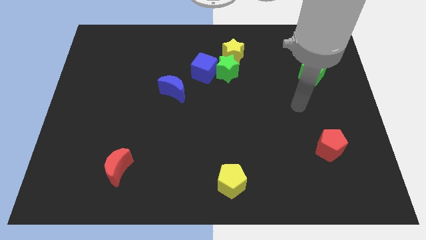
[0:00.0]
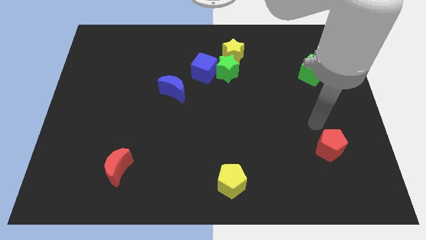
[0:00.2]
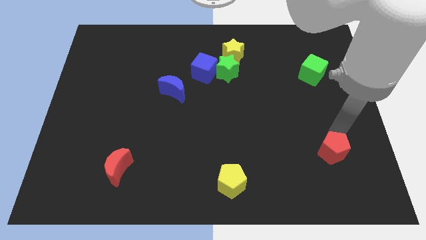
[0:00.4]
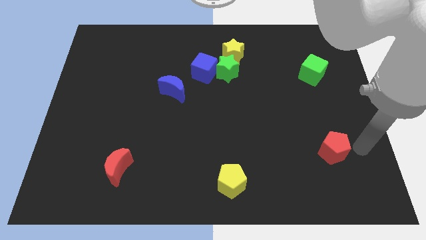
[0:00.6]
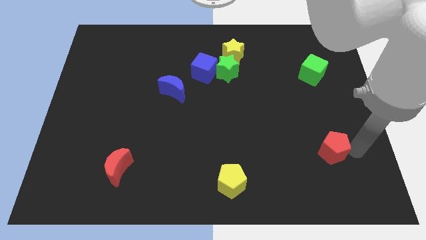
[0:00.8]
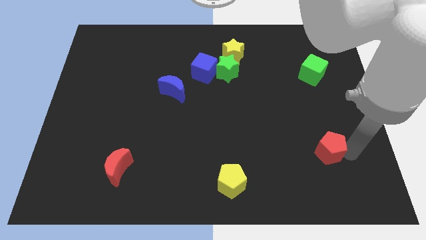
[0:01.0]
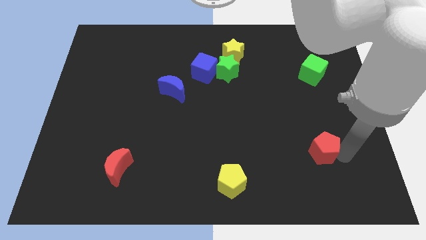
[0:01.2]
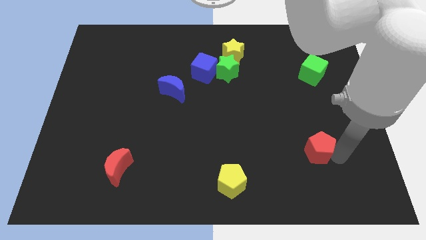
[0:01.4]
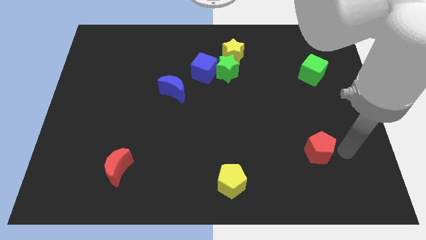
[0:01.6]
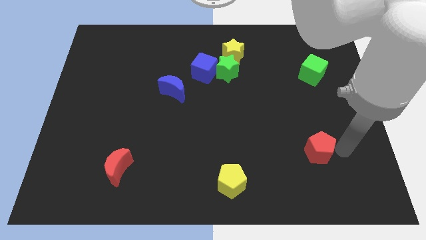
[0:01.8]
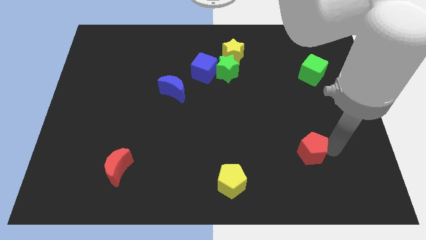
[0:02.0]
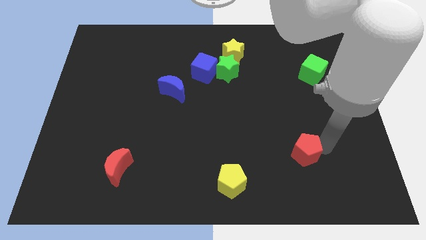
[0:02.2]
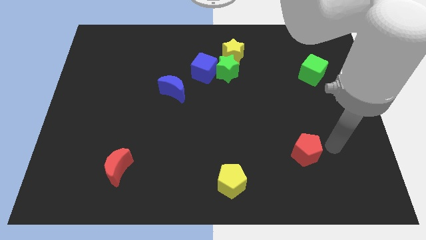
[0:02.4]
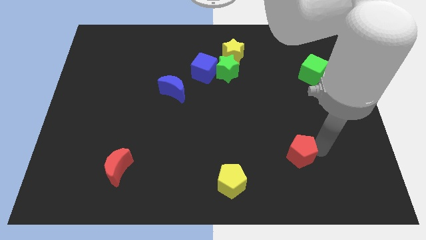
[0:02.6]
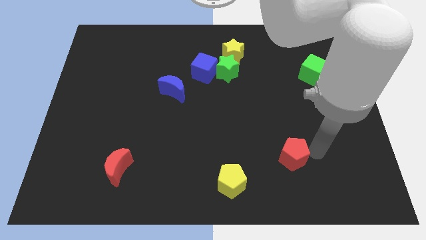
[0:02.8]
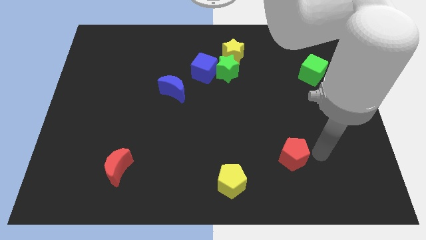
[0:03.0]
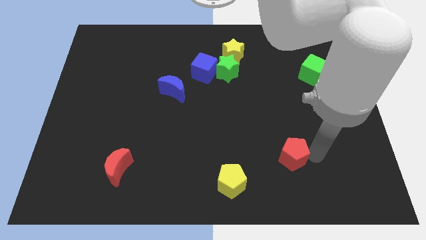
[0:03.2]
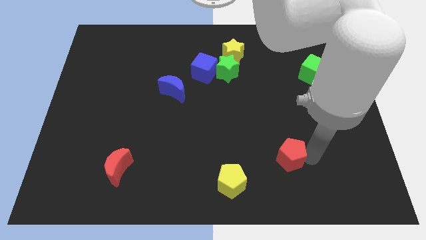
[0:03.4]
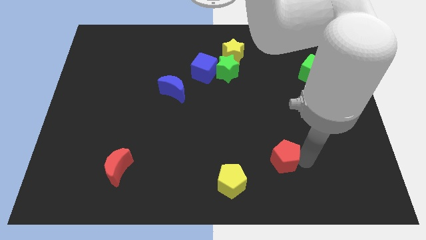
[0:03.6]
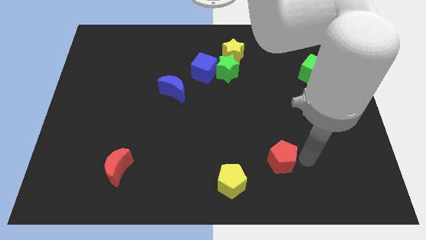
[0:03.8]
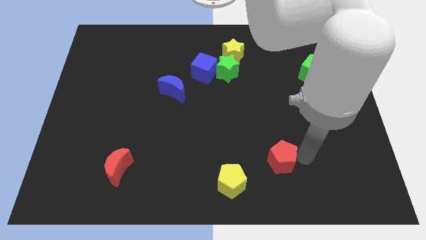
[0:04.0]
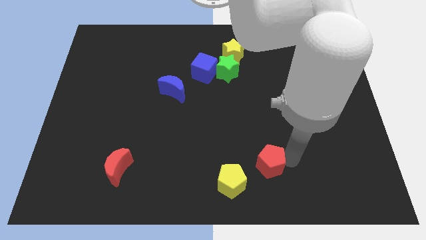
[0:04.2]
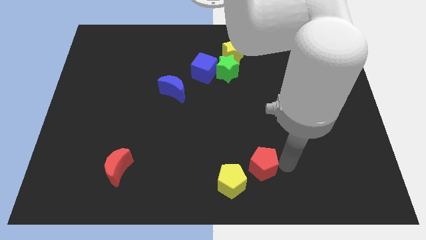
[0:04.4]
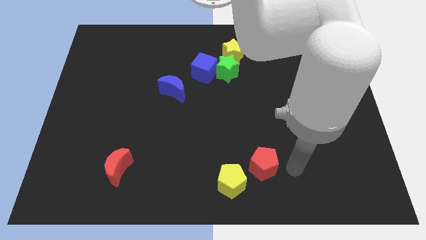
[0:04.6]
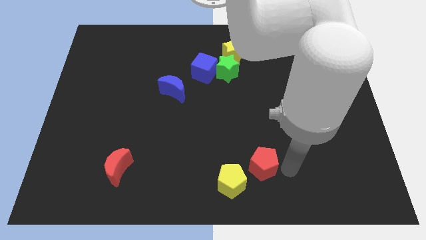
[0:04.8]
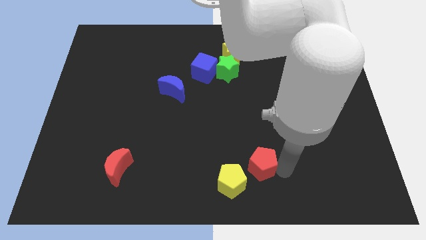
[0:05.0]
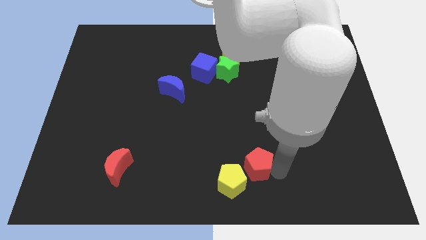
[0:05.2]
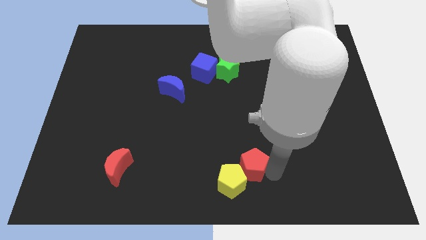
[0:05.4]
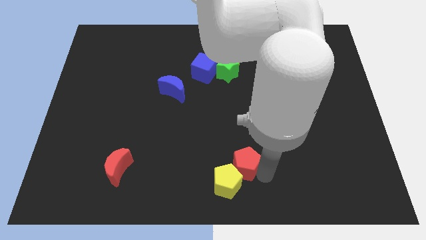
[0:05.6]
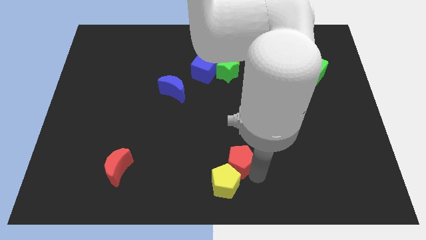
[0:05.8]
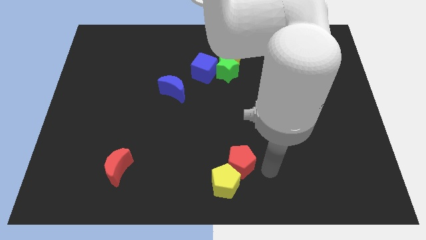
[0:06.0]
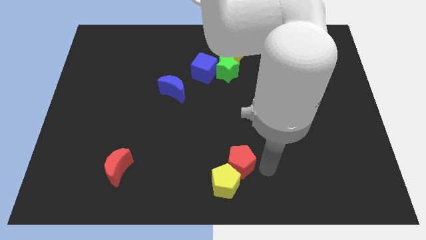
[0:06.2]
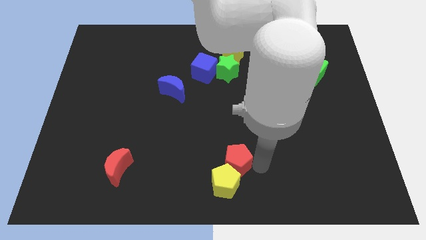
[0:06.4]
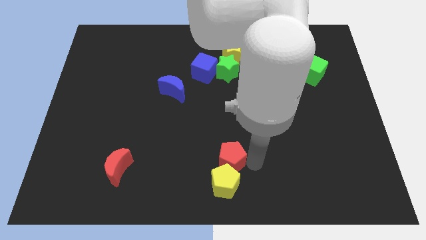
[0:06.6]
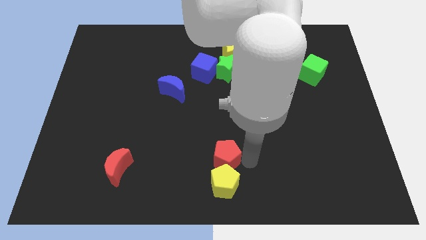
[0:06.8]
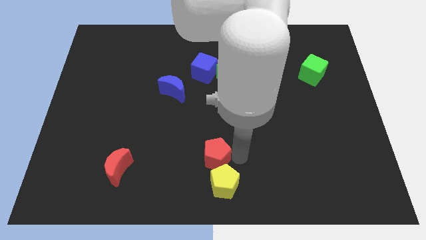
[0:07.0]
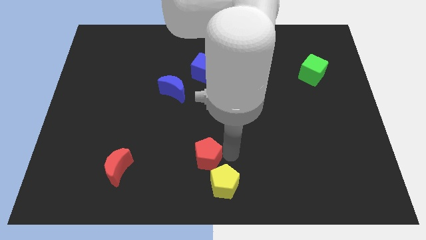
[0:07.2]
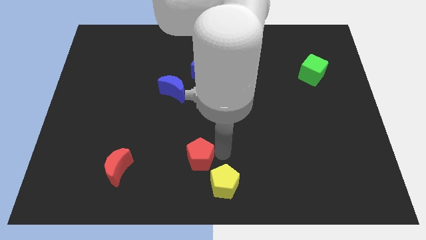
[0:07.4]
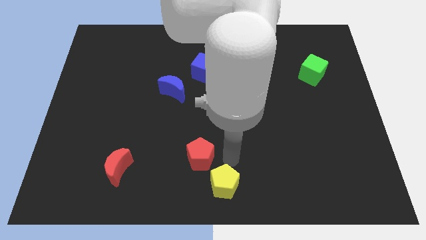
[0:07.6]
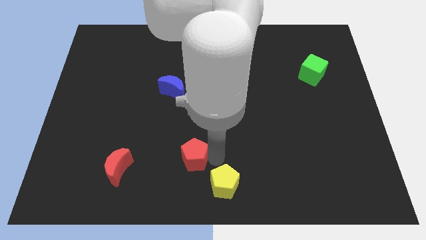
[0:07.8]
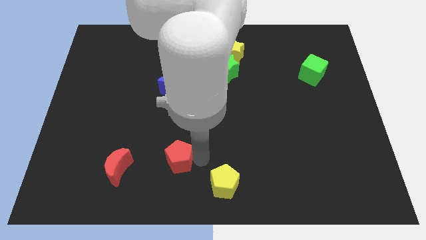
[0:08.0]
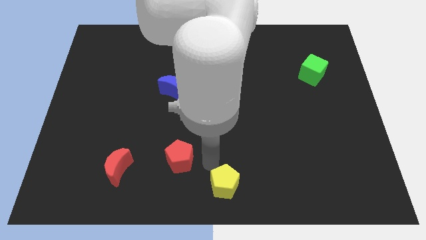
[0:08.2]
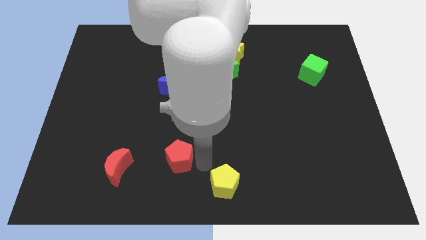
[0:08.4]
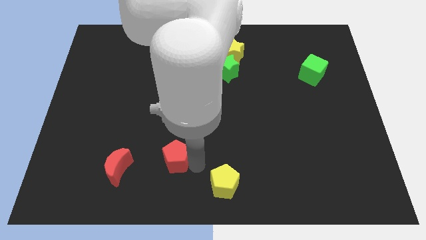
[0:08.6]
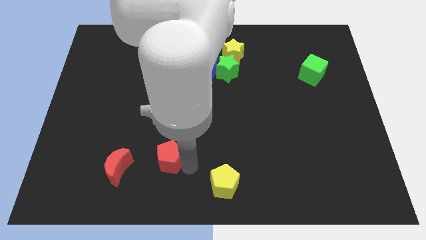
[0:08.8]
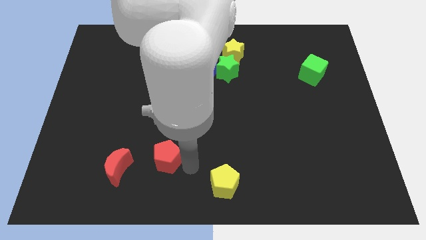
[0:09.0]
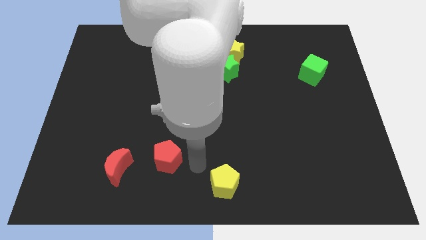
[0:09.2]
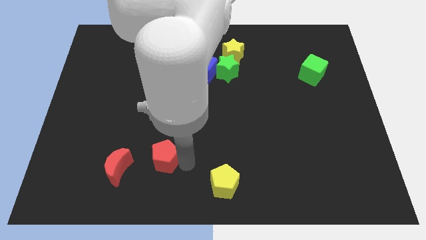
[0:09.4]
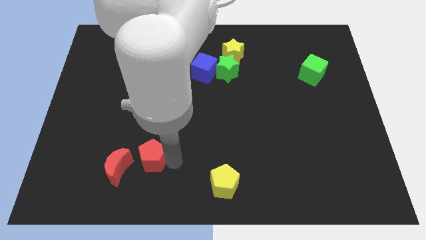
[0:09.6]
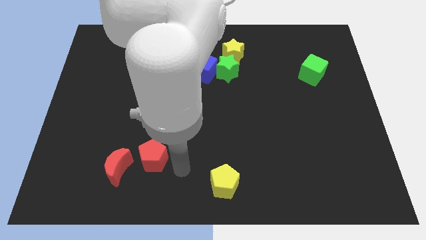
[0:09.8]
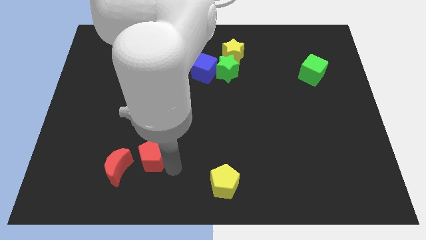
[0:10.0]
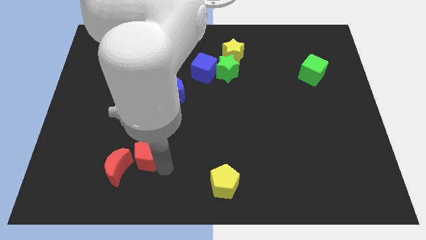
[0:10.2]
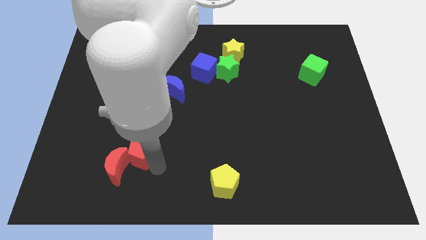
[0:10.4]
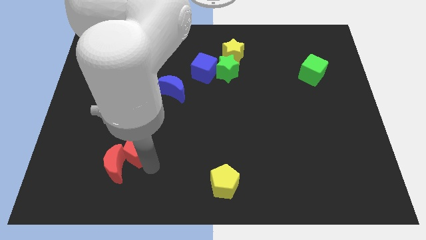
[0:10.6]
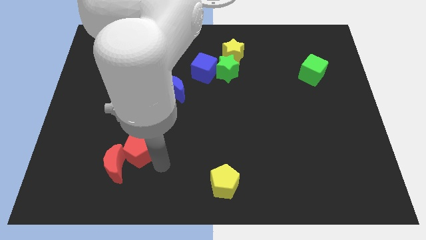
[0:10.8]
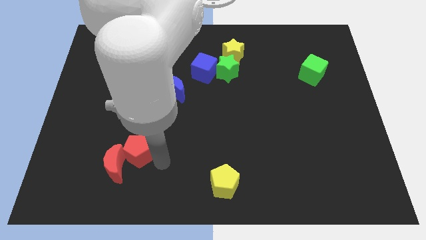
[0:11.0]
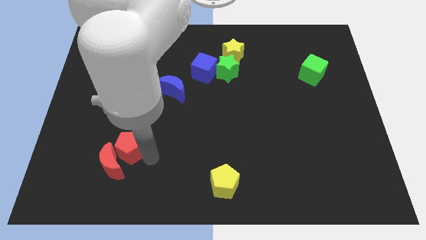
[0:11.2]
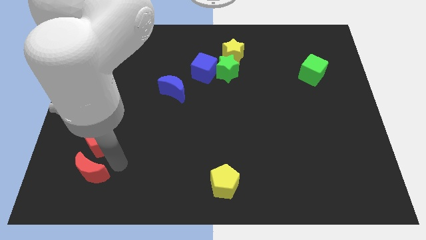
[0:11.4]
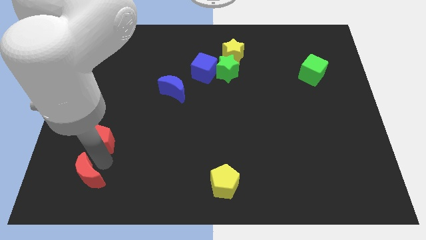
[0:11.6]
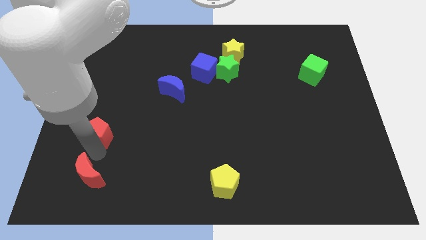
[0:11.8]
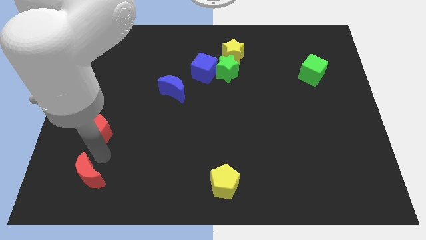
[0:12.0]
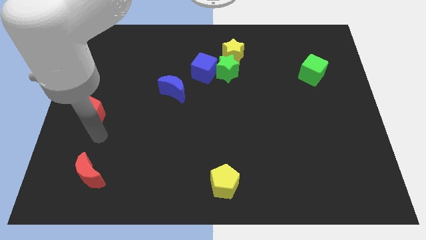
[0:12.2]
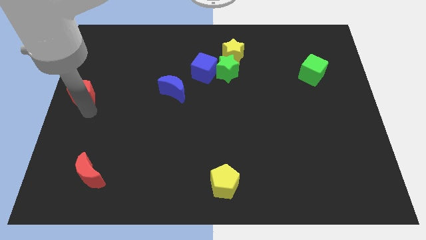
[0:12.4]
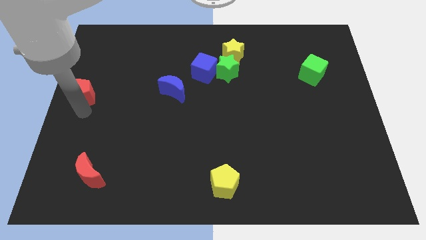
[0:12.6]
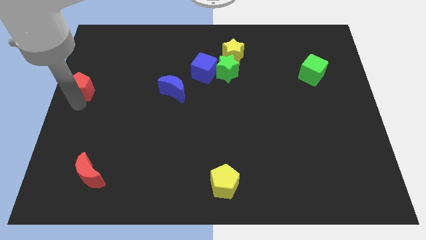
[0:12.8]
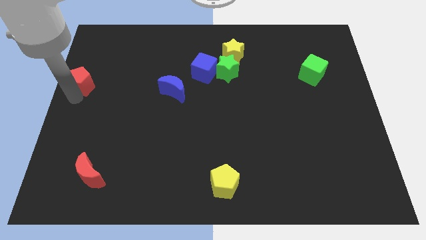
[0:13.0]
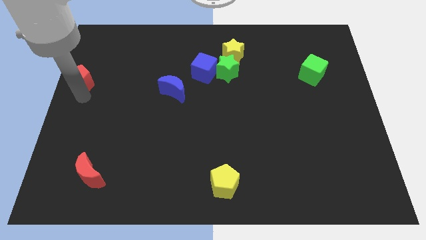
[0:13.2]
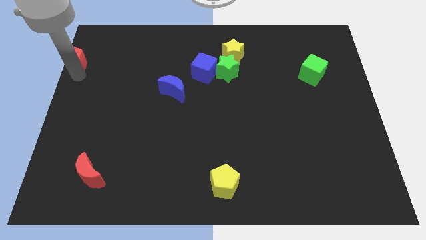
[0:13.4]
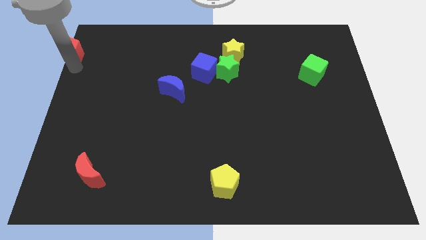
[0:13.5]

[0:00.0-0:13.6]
put the red pentagon to the top left
